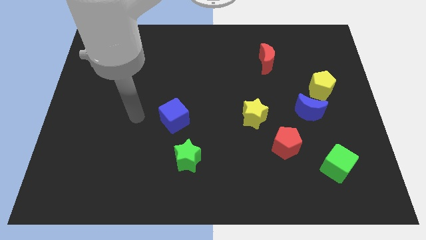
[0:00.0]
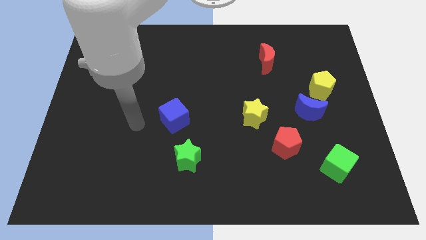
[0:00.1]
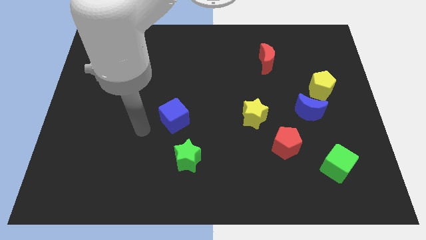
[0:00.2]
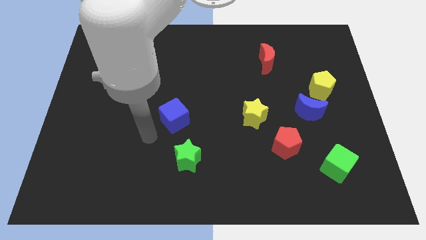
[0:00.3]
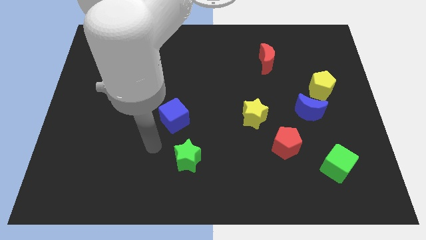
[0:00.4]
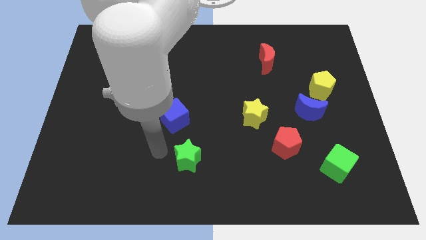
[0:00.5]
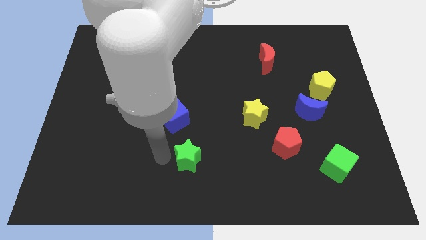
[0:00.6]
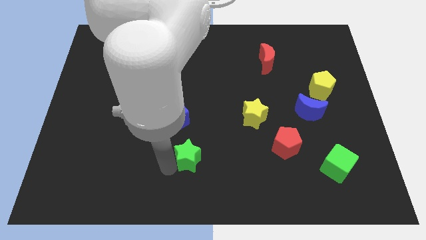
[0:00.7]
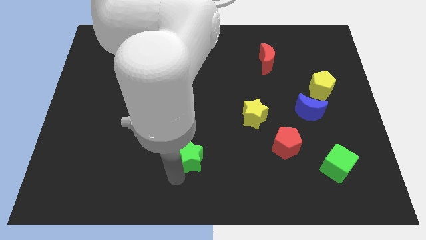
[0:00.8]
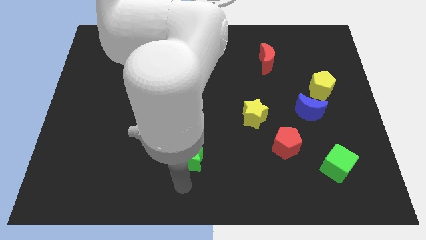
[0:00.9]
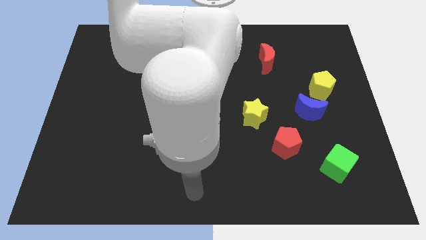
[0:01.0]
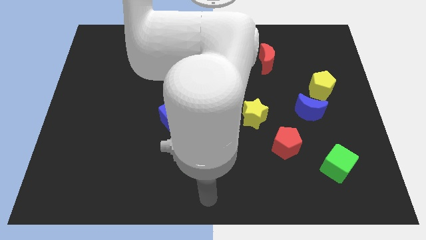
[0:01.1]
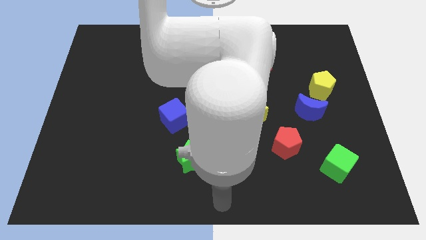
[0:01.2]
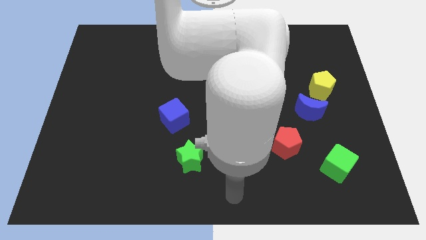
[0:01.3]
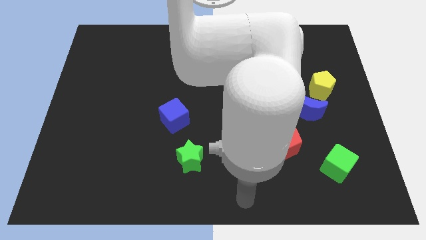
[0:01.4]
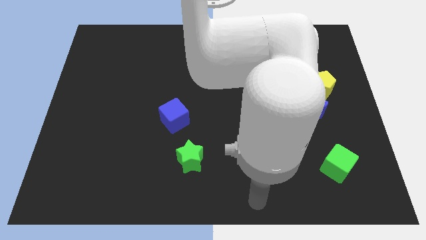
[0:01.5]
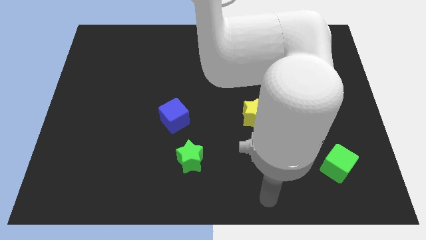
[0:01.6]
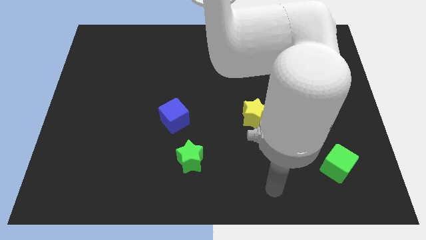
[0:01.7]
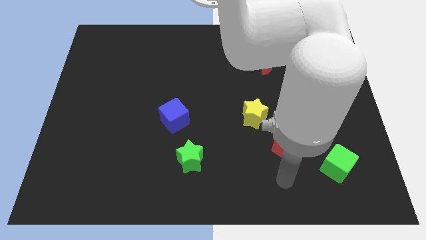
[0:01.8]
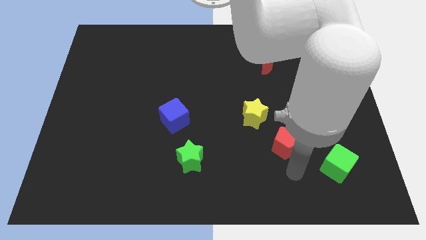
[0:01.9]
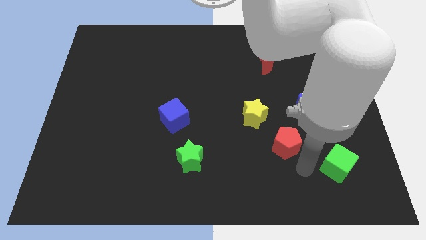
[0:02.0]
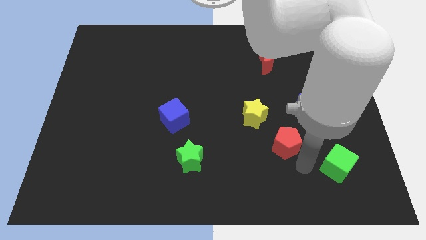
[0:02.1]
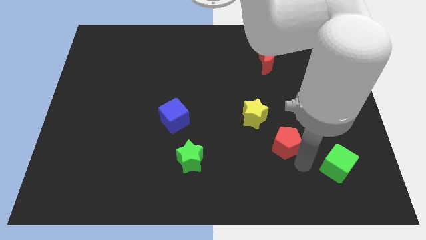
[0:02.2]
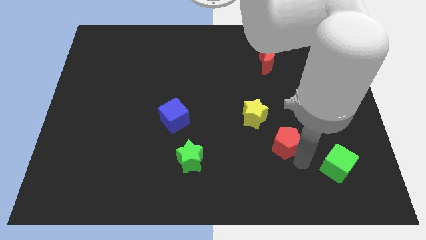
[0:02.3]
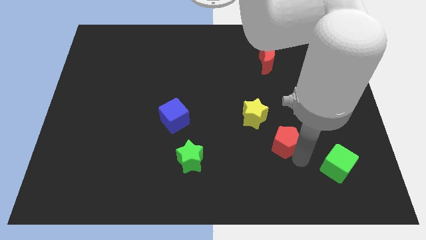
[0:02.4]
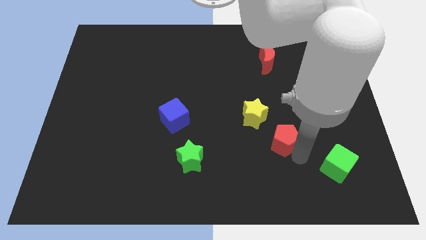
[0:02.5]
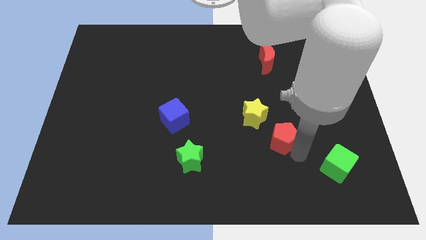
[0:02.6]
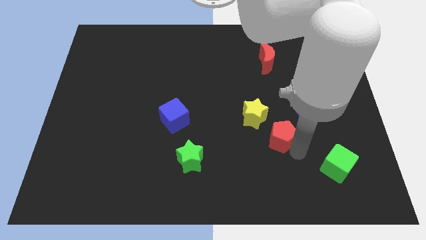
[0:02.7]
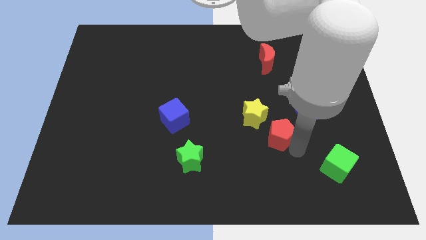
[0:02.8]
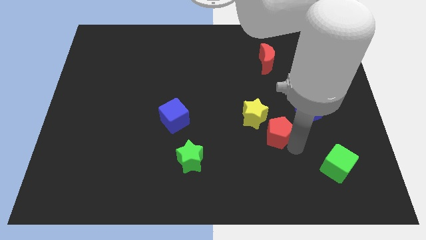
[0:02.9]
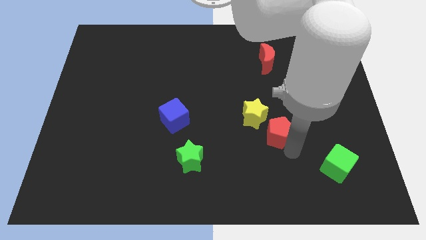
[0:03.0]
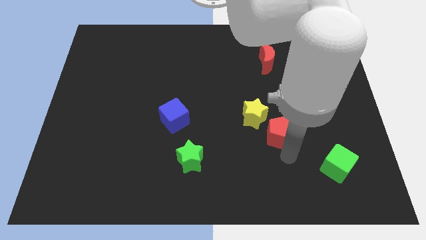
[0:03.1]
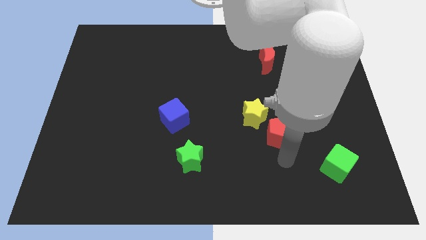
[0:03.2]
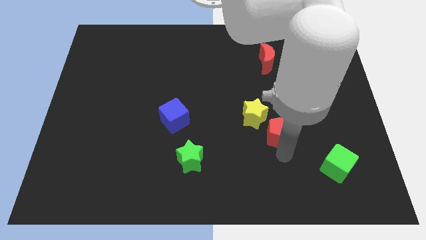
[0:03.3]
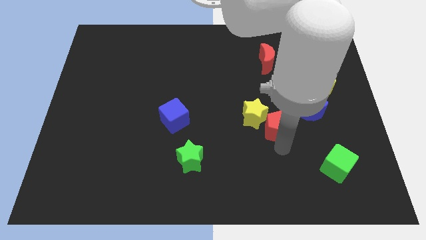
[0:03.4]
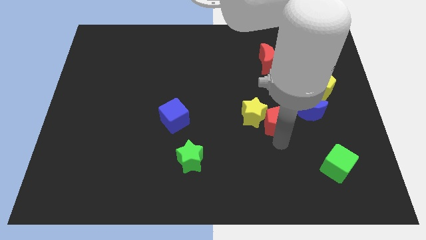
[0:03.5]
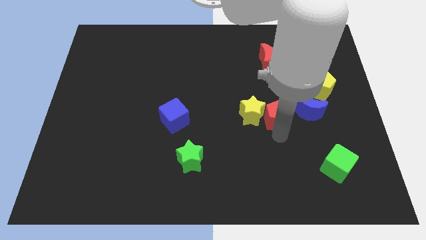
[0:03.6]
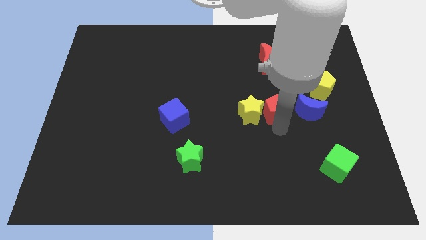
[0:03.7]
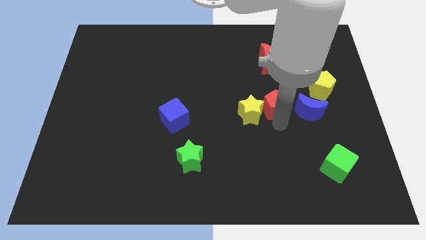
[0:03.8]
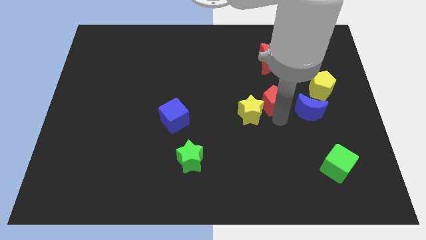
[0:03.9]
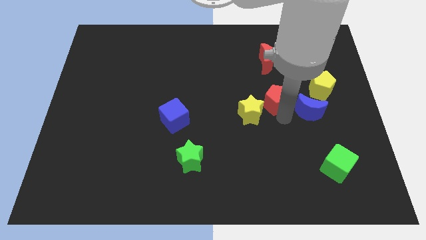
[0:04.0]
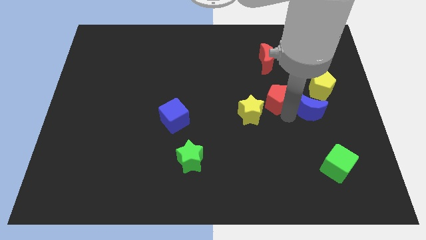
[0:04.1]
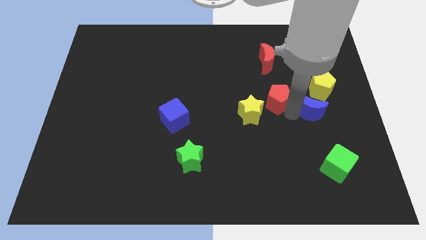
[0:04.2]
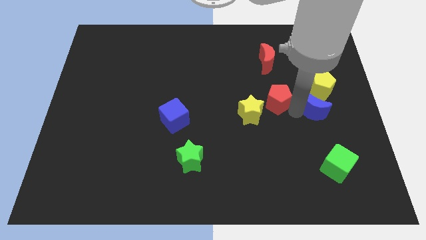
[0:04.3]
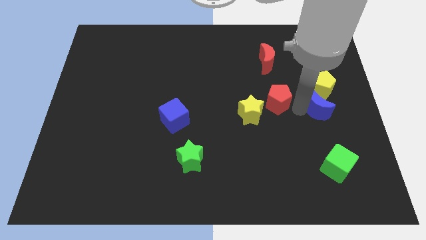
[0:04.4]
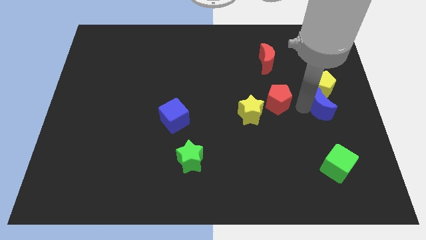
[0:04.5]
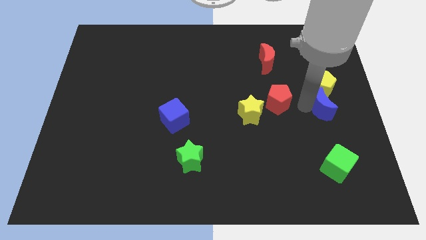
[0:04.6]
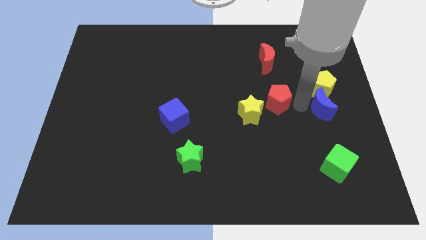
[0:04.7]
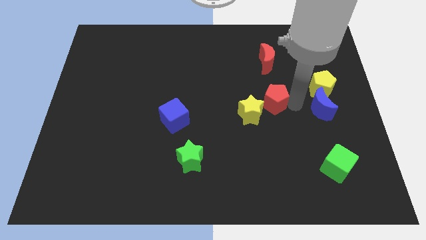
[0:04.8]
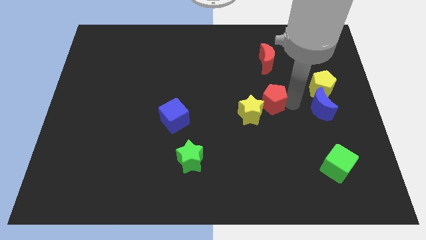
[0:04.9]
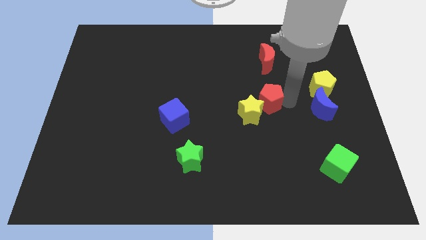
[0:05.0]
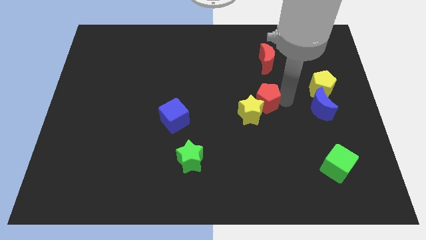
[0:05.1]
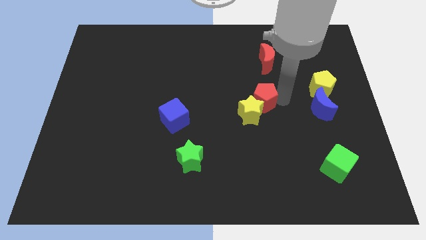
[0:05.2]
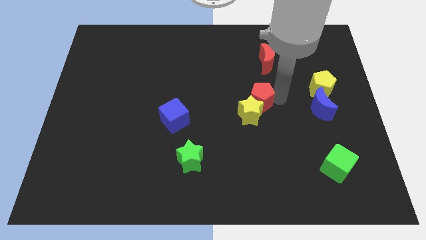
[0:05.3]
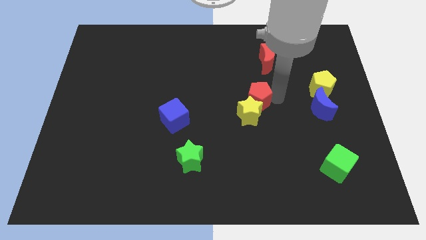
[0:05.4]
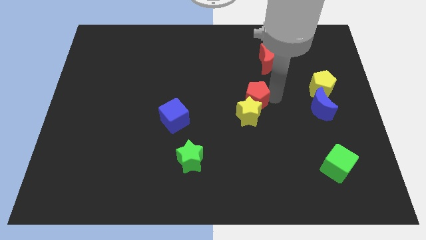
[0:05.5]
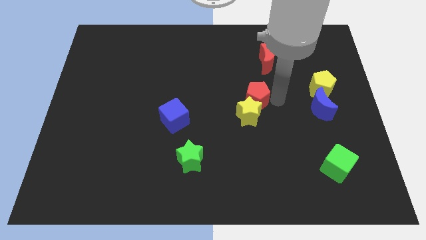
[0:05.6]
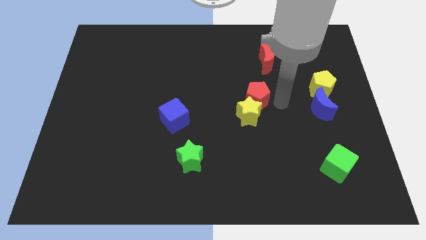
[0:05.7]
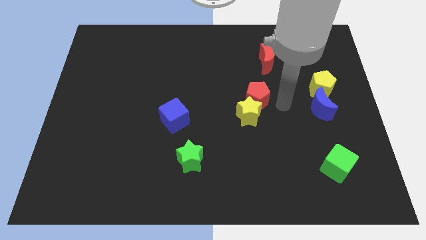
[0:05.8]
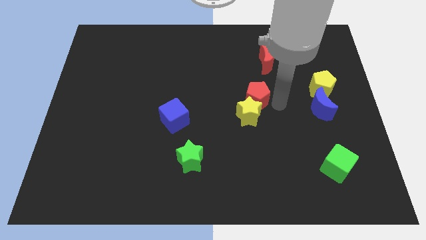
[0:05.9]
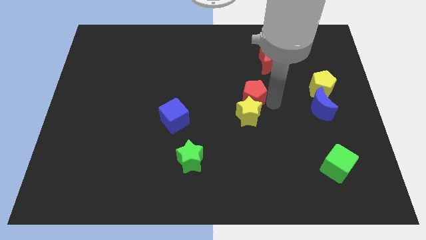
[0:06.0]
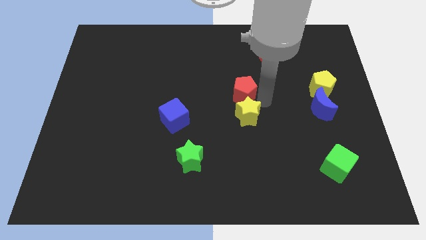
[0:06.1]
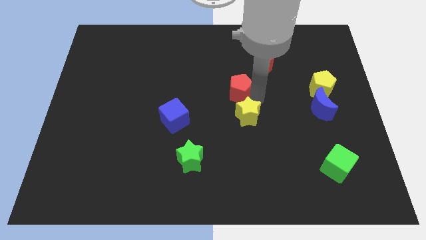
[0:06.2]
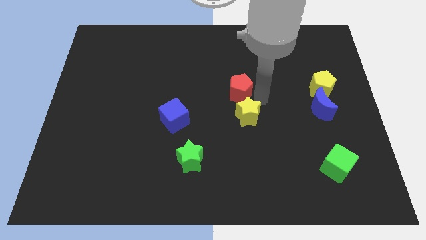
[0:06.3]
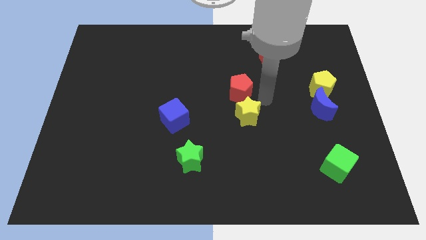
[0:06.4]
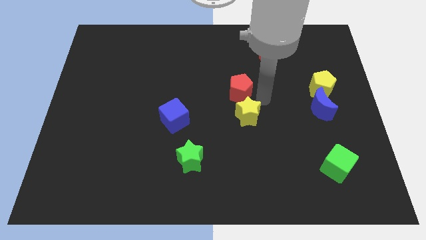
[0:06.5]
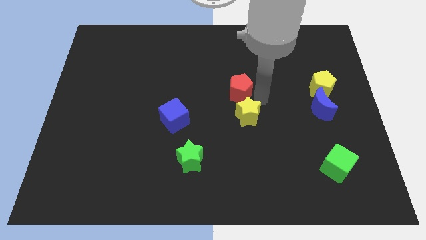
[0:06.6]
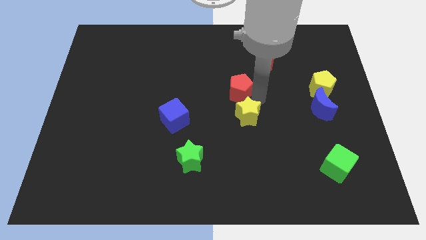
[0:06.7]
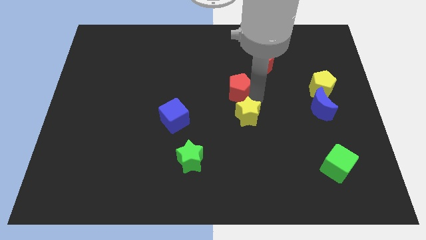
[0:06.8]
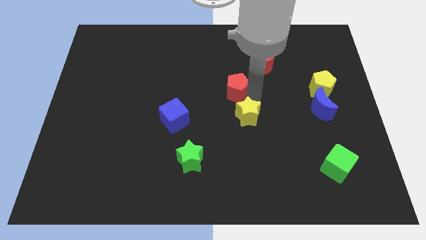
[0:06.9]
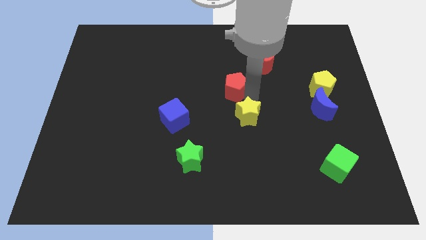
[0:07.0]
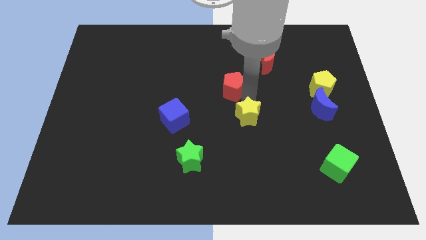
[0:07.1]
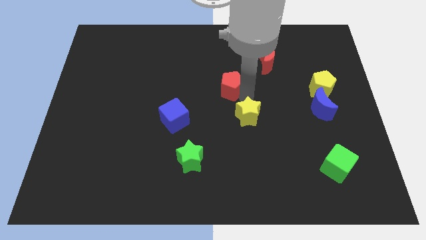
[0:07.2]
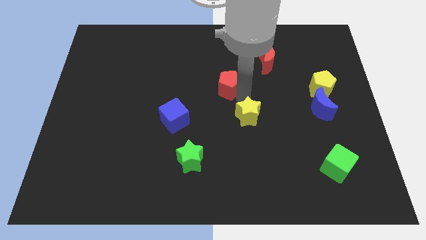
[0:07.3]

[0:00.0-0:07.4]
move the red pentagon upwards and left diagonally

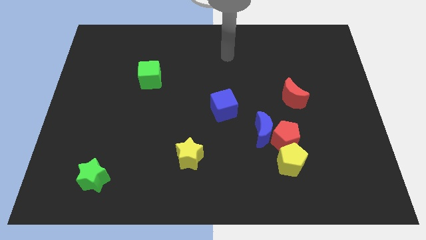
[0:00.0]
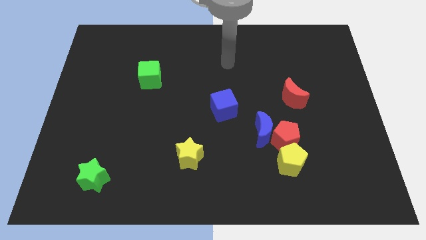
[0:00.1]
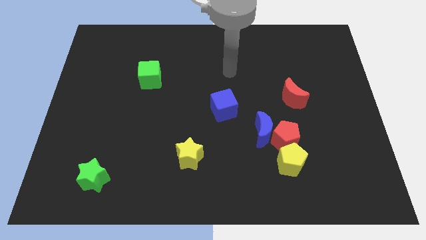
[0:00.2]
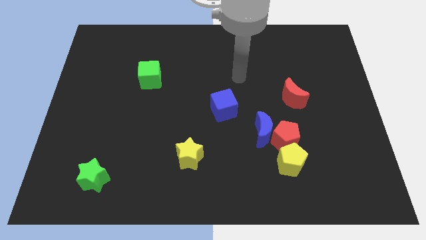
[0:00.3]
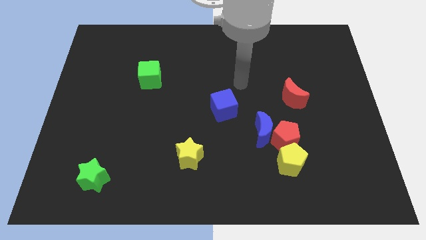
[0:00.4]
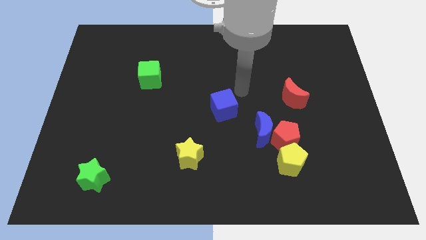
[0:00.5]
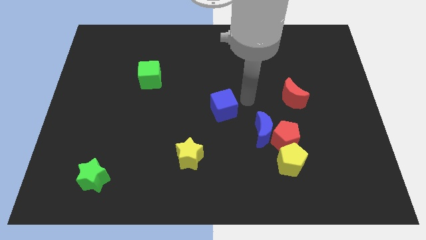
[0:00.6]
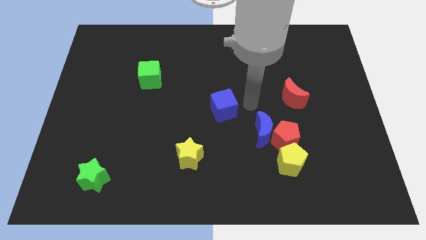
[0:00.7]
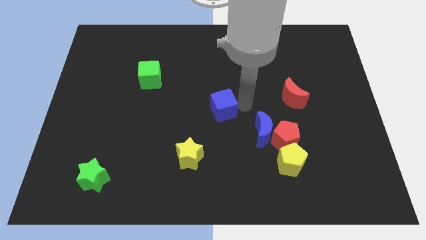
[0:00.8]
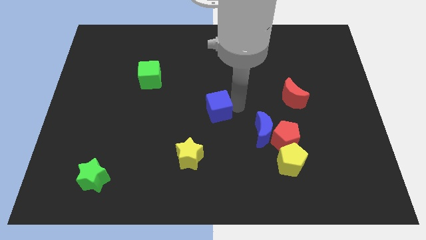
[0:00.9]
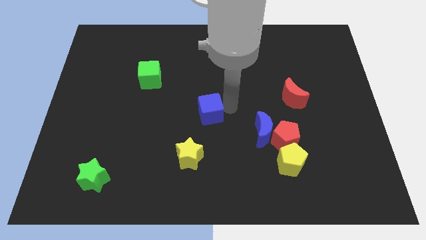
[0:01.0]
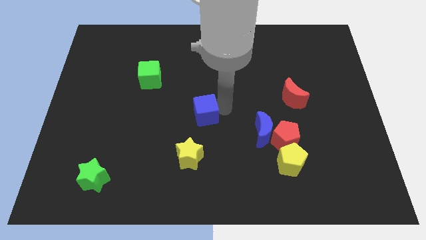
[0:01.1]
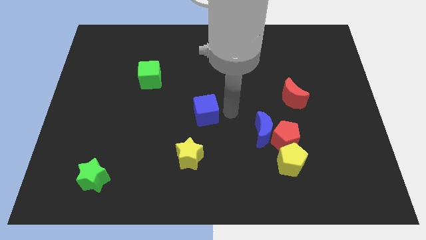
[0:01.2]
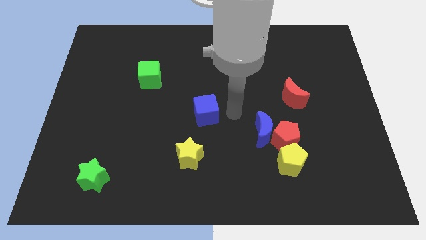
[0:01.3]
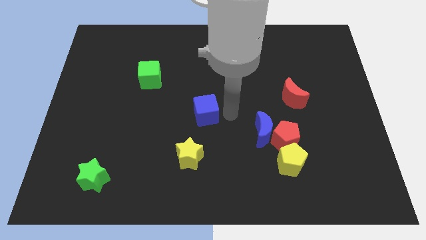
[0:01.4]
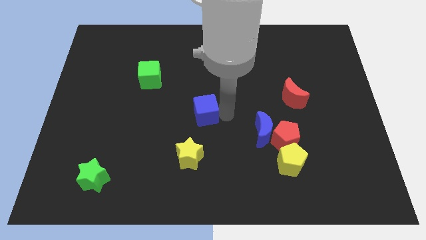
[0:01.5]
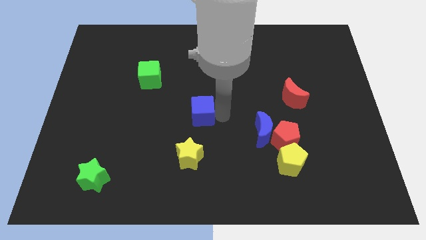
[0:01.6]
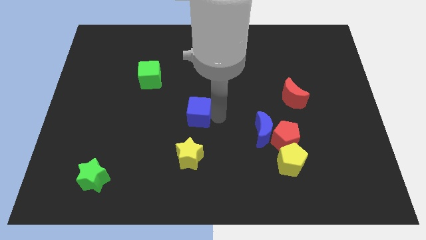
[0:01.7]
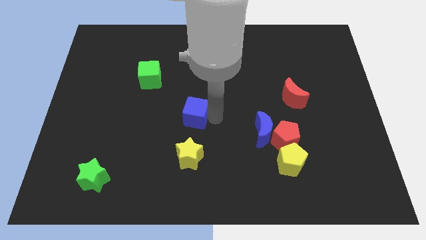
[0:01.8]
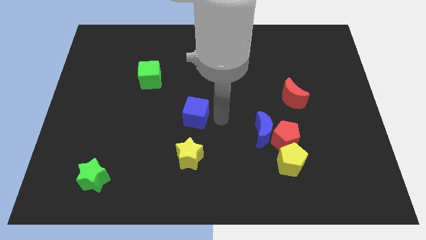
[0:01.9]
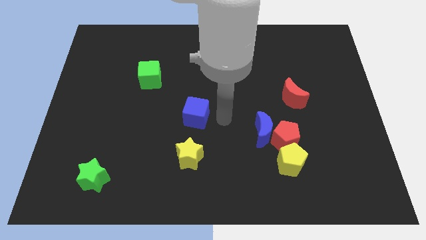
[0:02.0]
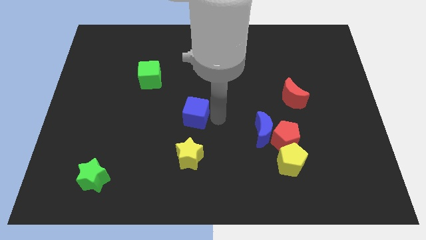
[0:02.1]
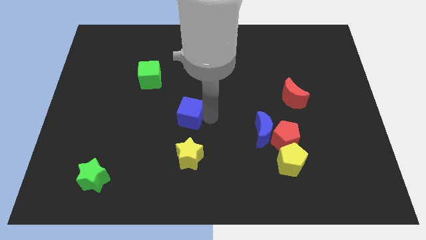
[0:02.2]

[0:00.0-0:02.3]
slightly push the blue cube to the left
